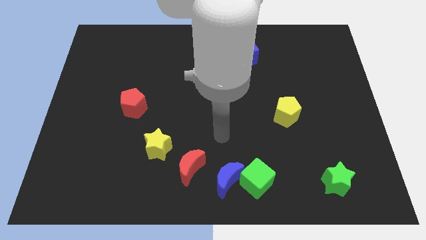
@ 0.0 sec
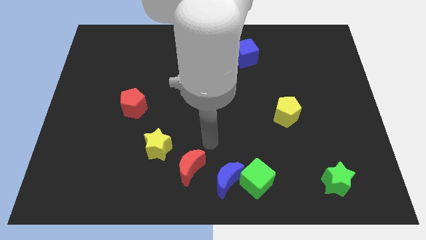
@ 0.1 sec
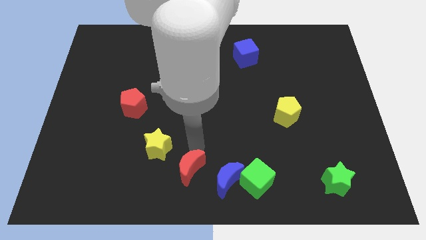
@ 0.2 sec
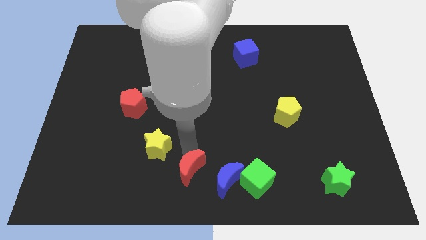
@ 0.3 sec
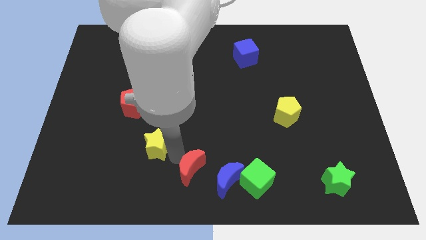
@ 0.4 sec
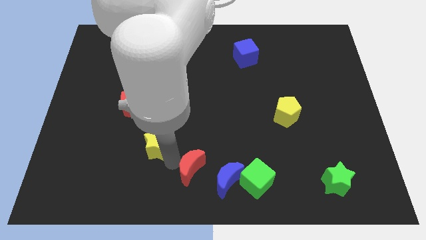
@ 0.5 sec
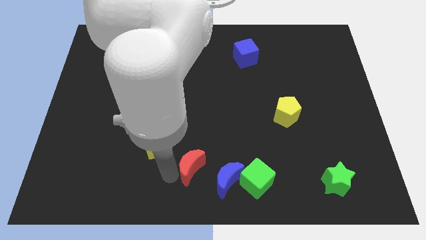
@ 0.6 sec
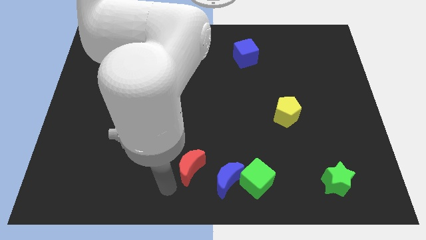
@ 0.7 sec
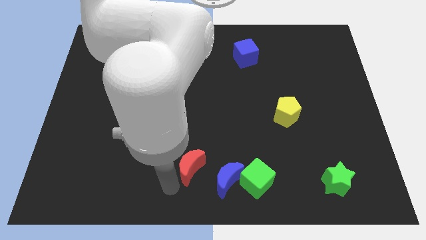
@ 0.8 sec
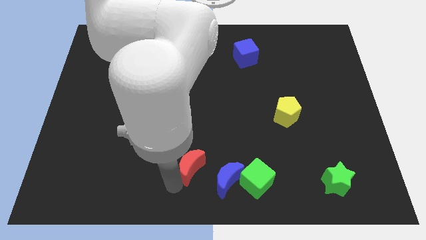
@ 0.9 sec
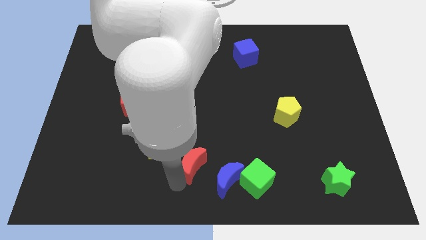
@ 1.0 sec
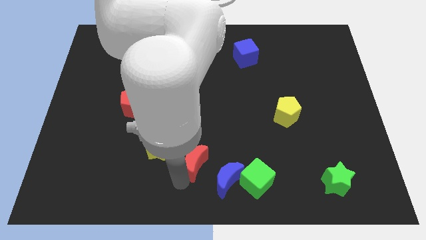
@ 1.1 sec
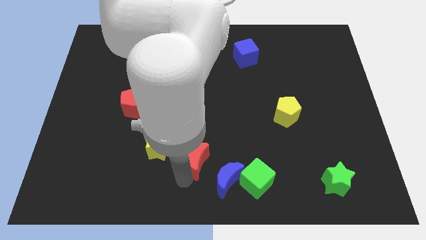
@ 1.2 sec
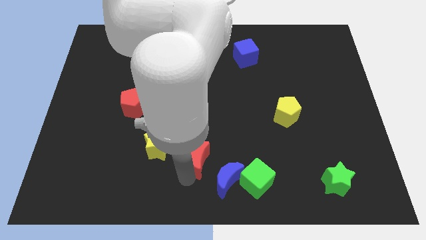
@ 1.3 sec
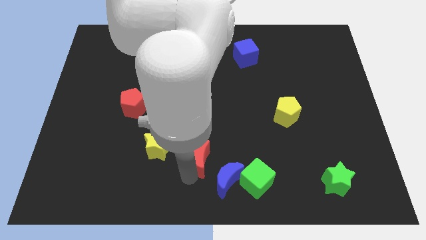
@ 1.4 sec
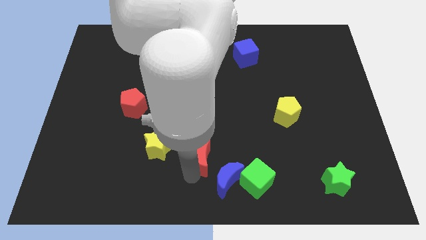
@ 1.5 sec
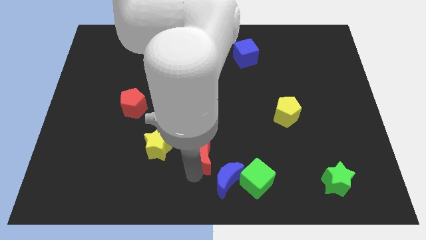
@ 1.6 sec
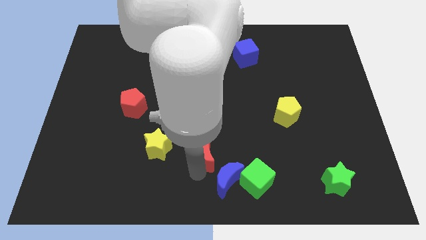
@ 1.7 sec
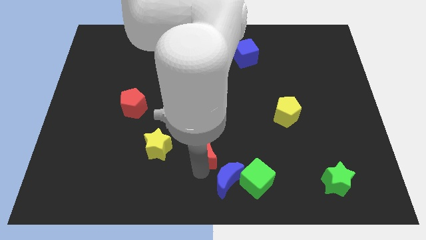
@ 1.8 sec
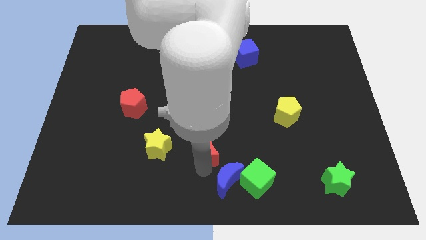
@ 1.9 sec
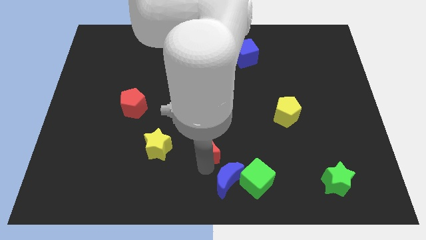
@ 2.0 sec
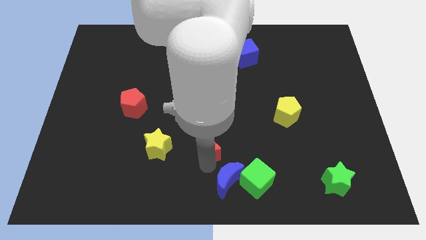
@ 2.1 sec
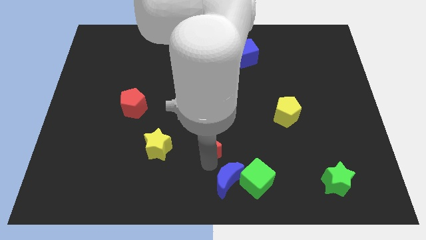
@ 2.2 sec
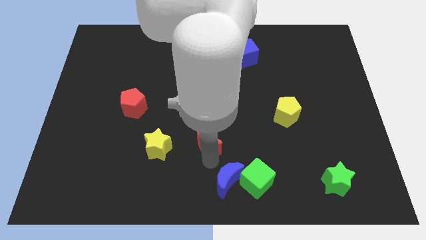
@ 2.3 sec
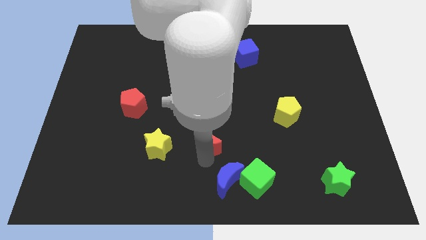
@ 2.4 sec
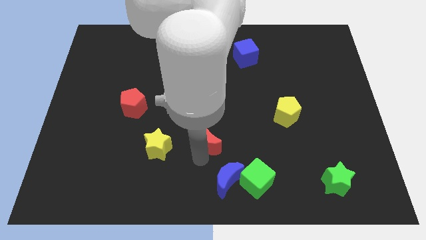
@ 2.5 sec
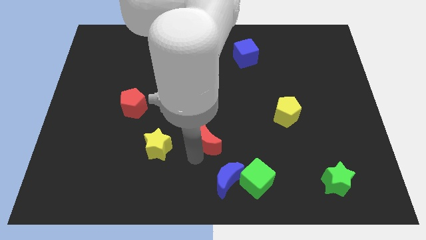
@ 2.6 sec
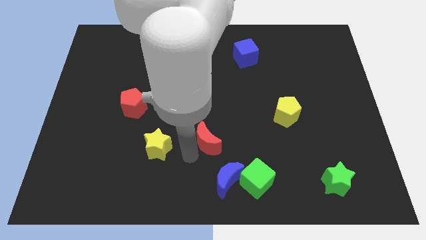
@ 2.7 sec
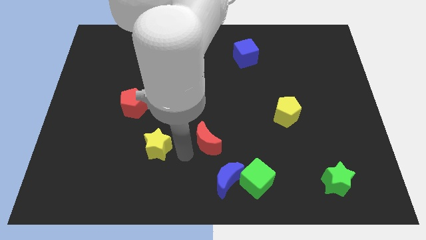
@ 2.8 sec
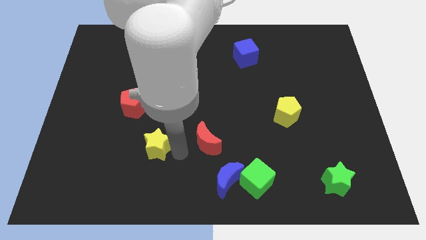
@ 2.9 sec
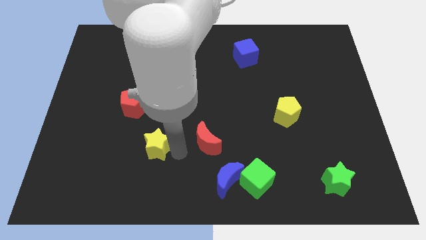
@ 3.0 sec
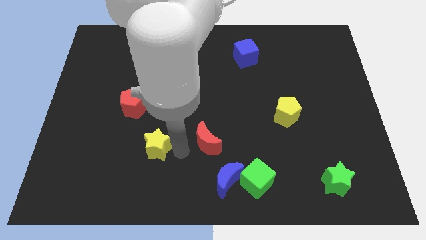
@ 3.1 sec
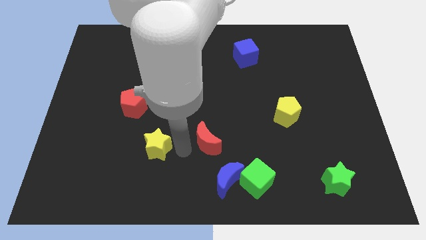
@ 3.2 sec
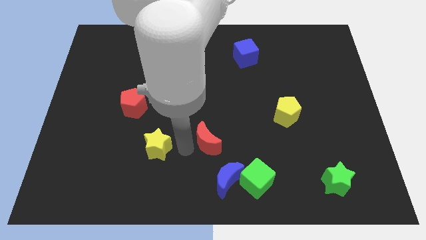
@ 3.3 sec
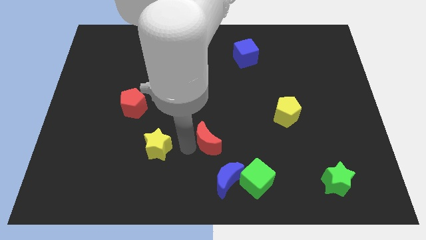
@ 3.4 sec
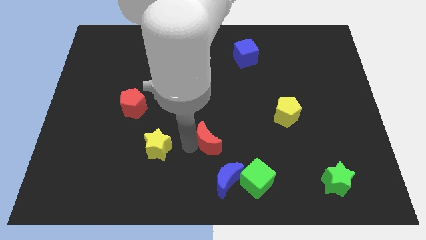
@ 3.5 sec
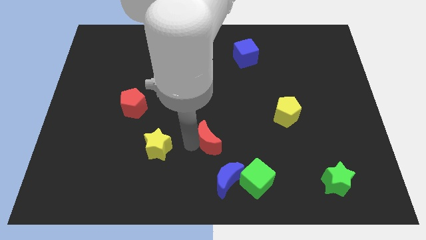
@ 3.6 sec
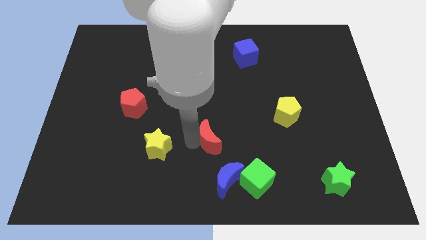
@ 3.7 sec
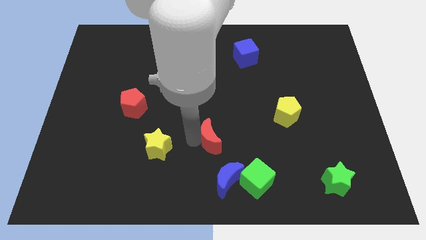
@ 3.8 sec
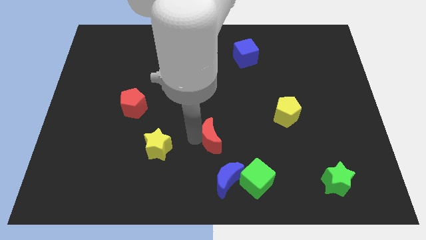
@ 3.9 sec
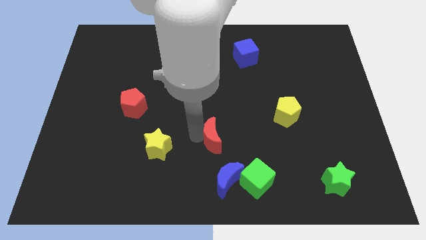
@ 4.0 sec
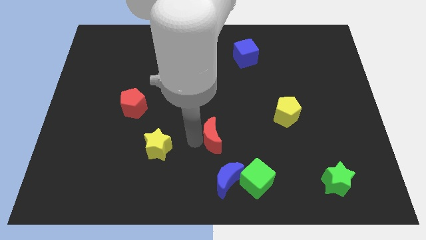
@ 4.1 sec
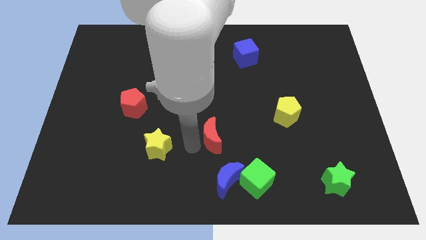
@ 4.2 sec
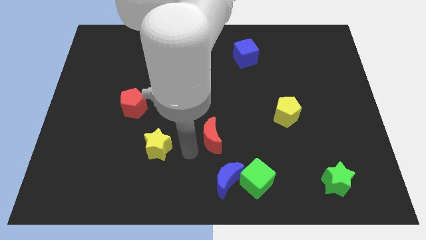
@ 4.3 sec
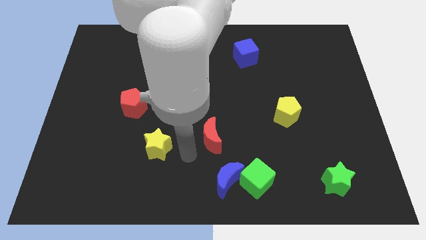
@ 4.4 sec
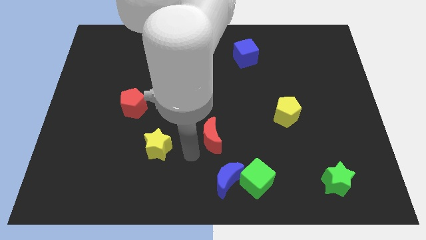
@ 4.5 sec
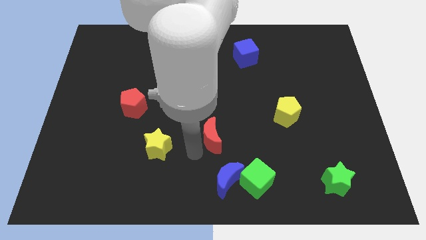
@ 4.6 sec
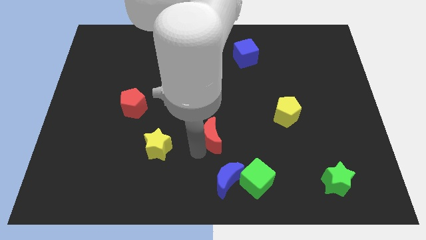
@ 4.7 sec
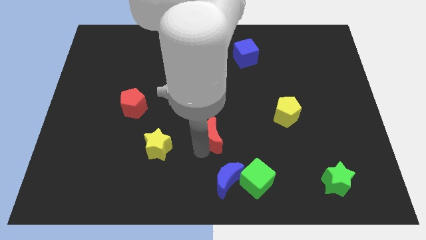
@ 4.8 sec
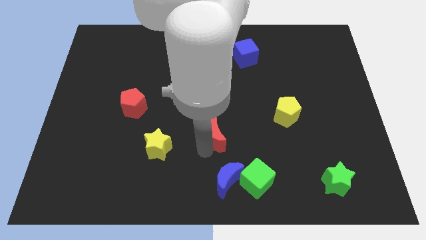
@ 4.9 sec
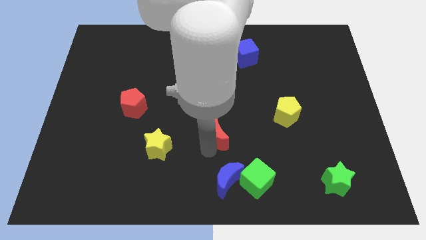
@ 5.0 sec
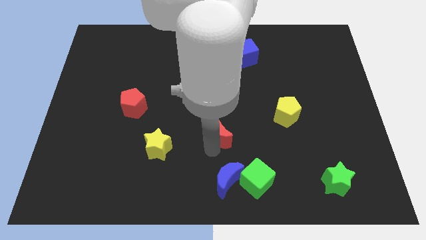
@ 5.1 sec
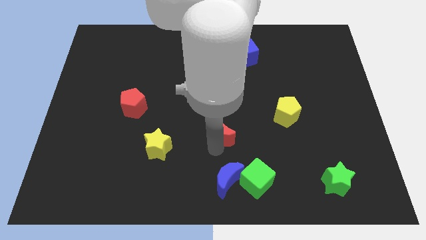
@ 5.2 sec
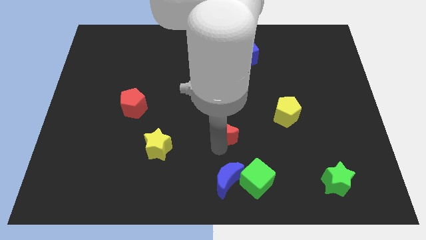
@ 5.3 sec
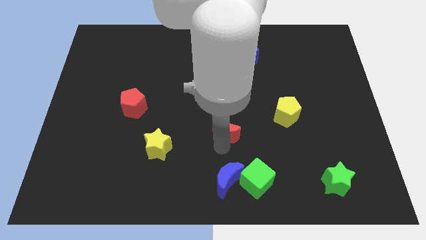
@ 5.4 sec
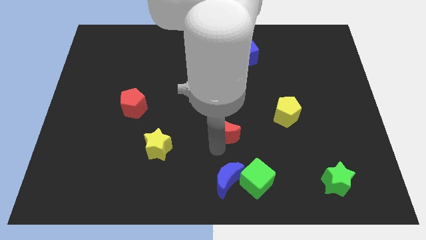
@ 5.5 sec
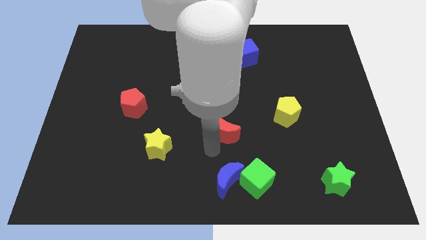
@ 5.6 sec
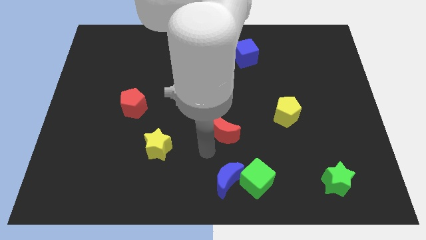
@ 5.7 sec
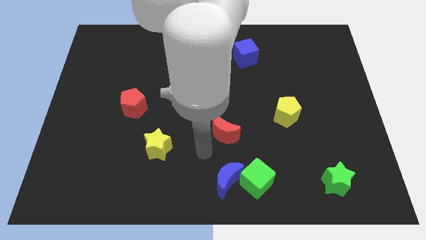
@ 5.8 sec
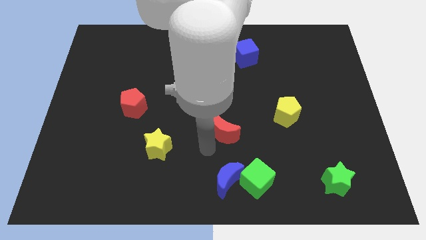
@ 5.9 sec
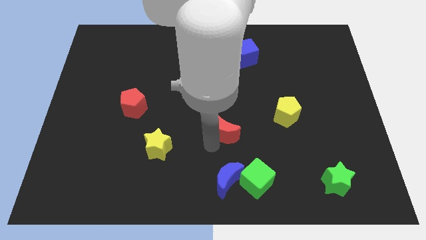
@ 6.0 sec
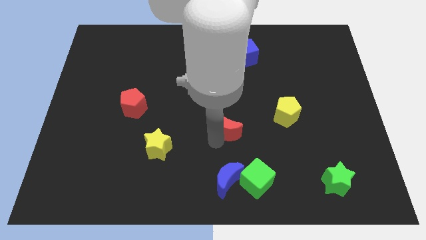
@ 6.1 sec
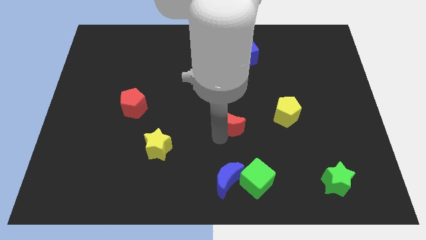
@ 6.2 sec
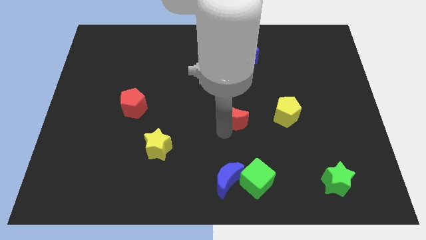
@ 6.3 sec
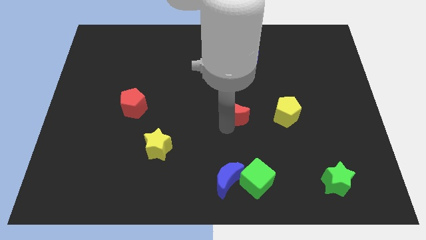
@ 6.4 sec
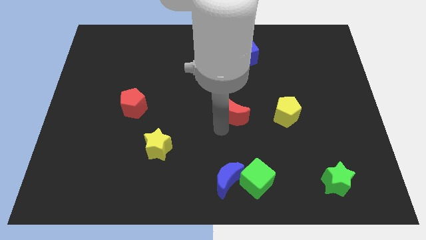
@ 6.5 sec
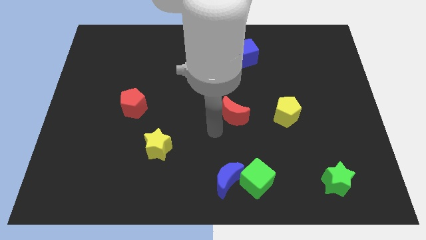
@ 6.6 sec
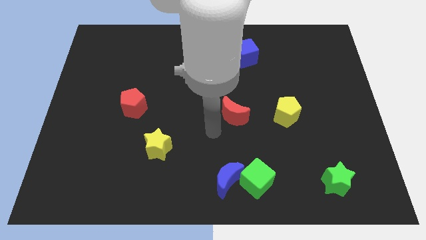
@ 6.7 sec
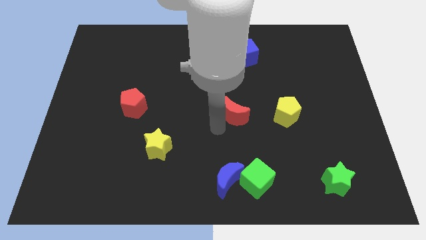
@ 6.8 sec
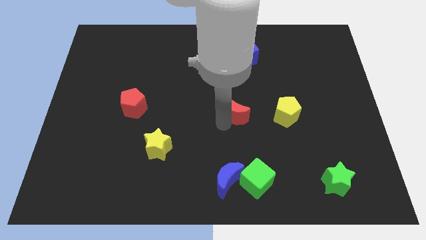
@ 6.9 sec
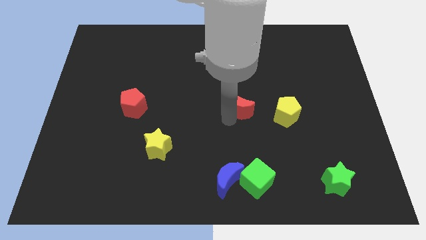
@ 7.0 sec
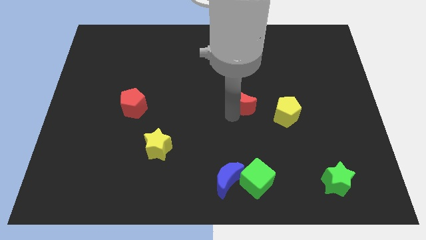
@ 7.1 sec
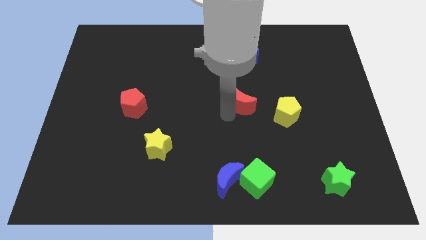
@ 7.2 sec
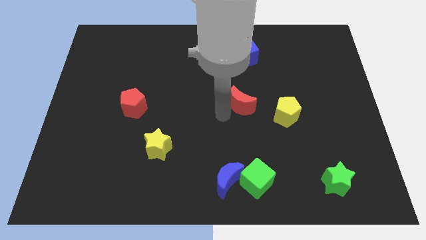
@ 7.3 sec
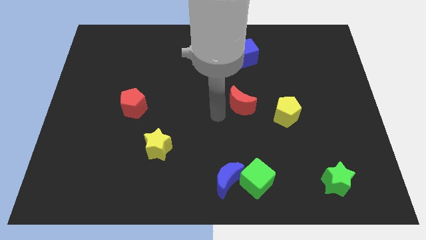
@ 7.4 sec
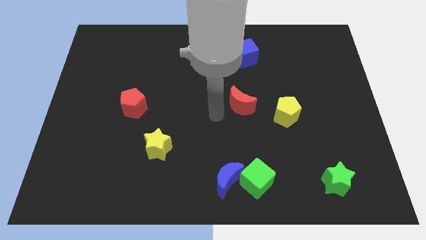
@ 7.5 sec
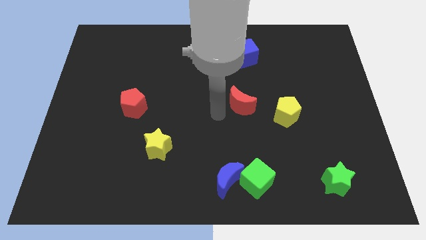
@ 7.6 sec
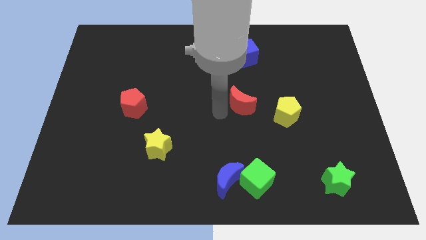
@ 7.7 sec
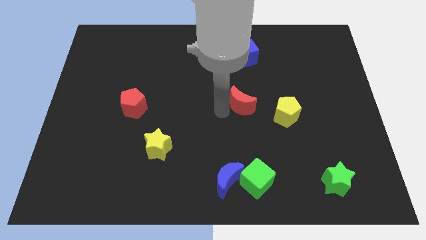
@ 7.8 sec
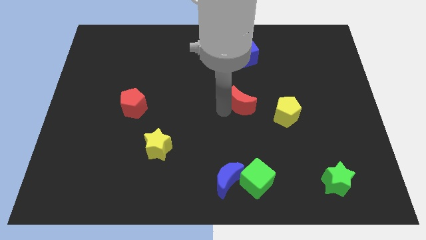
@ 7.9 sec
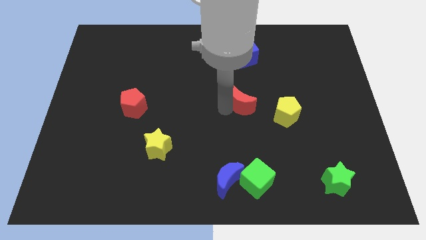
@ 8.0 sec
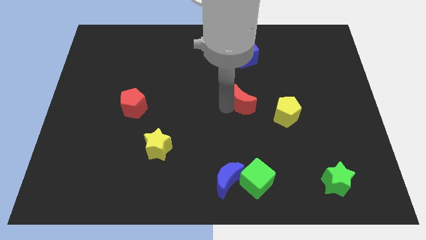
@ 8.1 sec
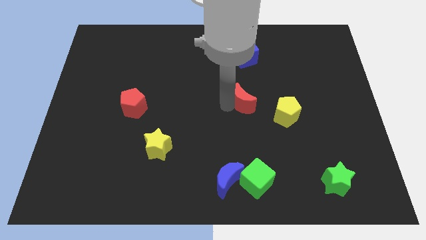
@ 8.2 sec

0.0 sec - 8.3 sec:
push the red moon upwards and right diagonally
